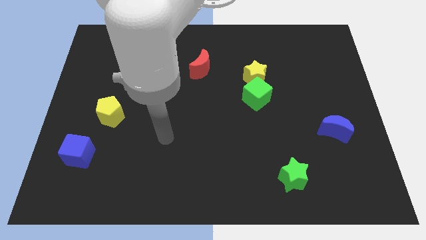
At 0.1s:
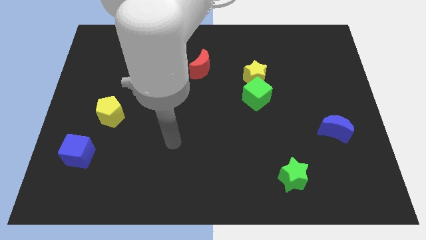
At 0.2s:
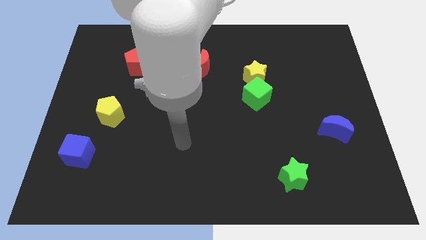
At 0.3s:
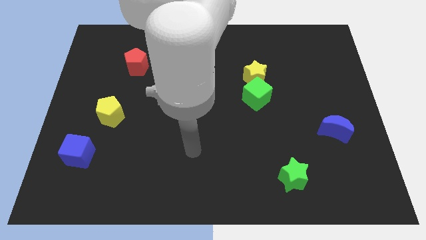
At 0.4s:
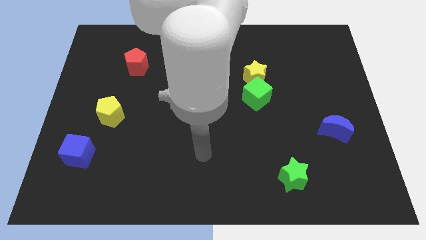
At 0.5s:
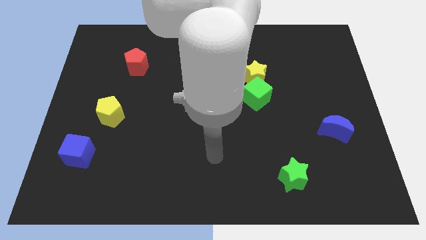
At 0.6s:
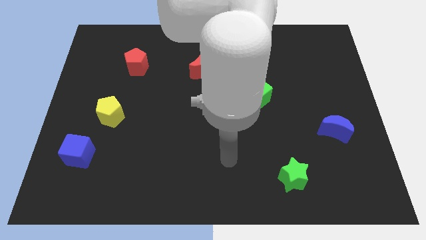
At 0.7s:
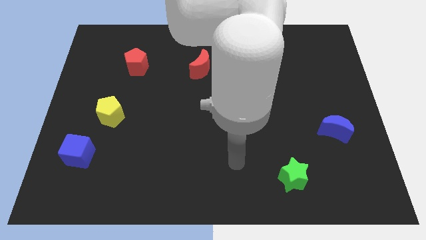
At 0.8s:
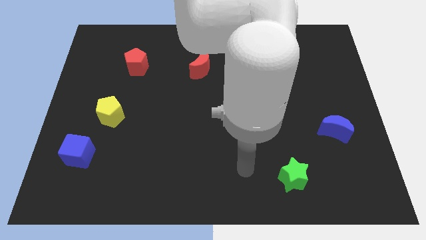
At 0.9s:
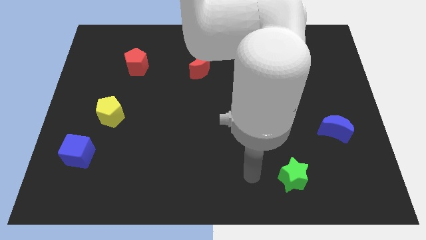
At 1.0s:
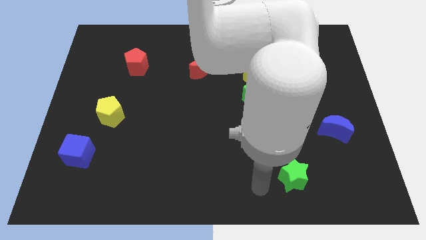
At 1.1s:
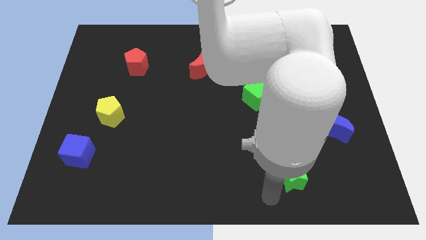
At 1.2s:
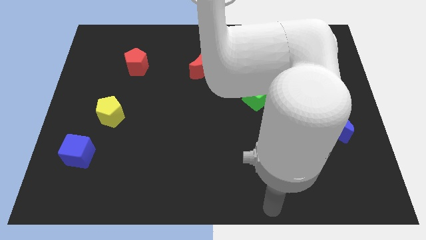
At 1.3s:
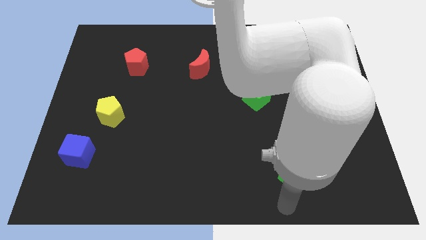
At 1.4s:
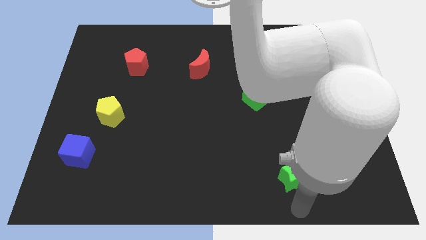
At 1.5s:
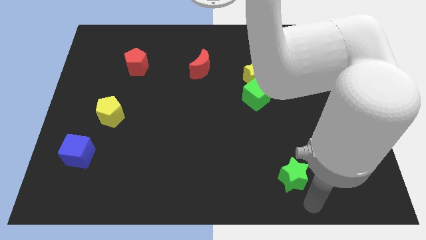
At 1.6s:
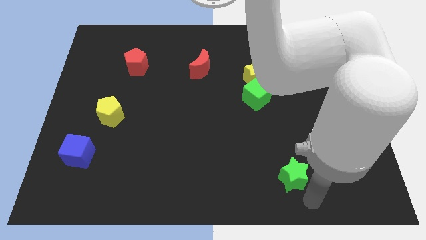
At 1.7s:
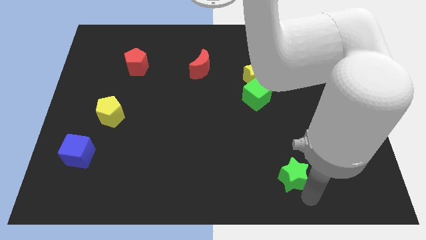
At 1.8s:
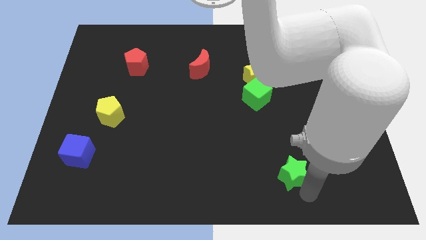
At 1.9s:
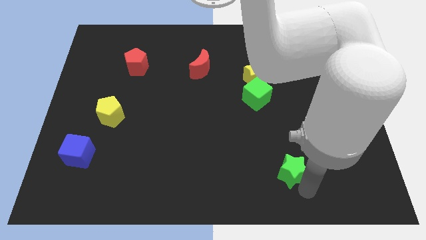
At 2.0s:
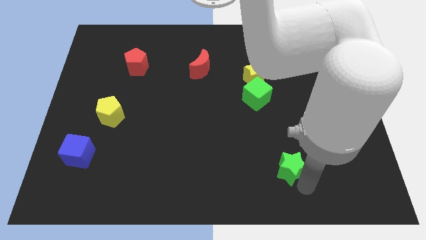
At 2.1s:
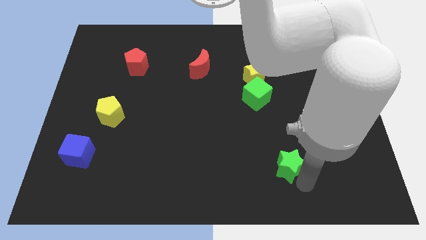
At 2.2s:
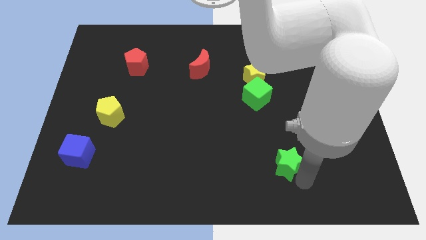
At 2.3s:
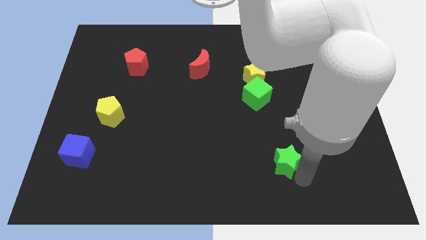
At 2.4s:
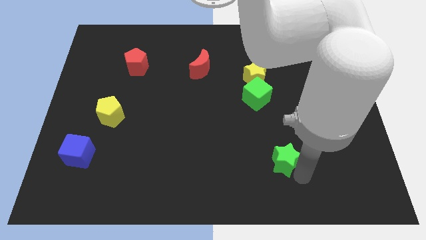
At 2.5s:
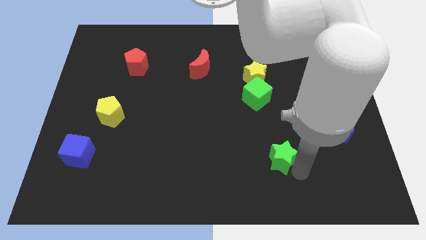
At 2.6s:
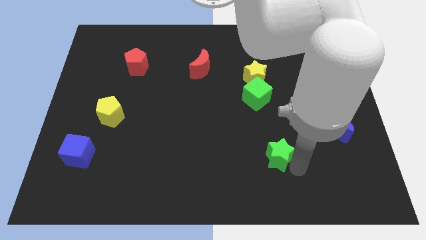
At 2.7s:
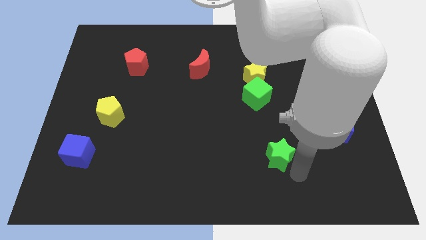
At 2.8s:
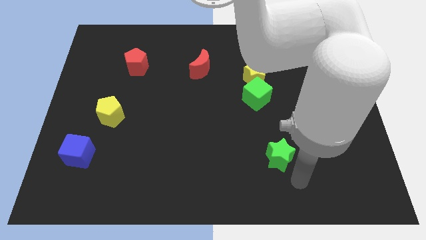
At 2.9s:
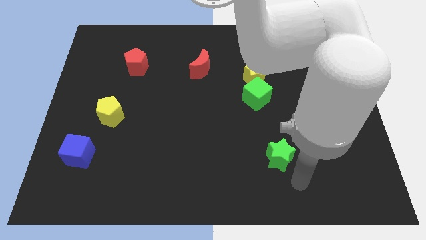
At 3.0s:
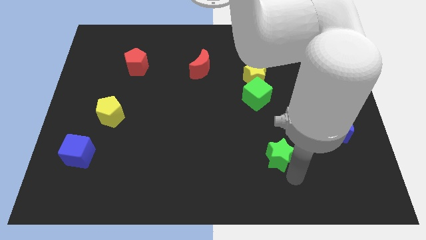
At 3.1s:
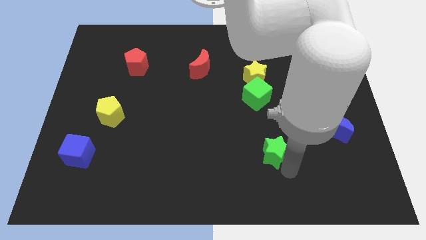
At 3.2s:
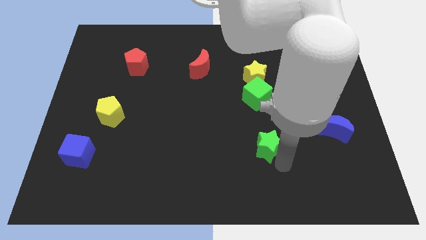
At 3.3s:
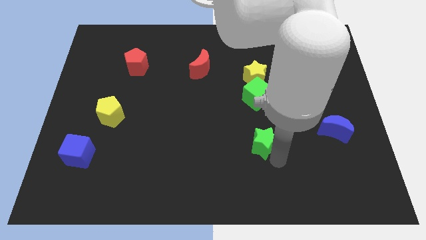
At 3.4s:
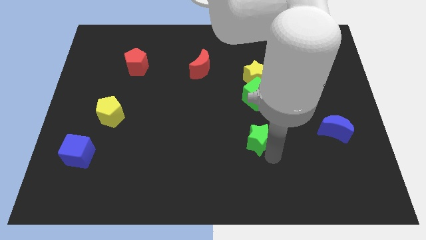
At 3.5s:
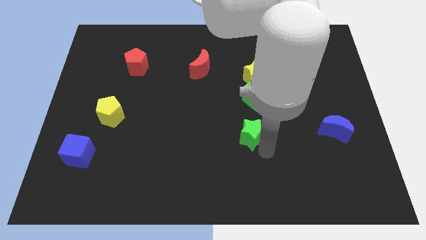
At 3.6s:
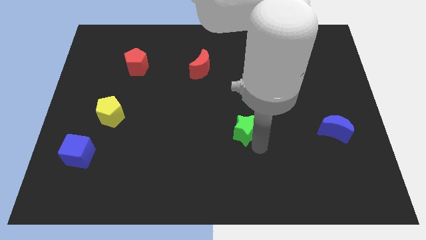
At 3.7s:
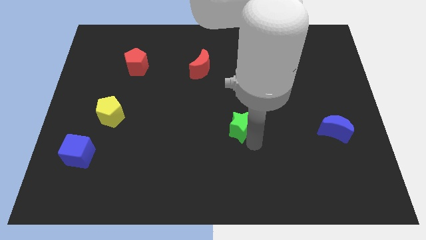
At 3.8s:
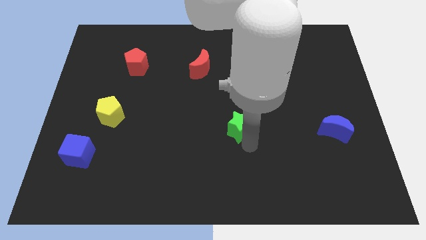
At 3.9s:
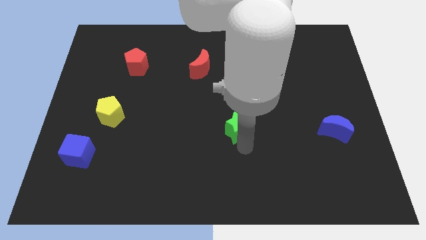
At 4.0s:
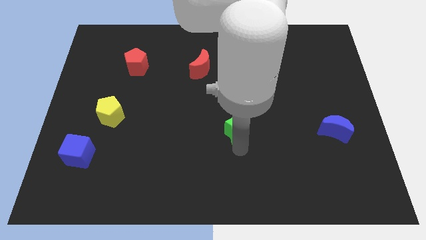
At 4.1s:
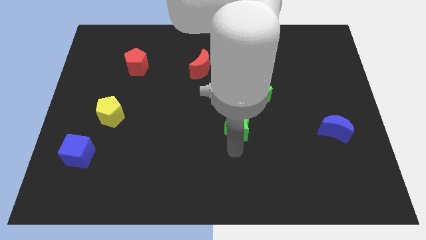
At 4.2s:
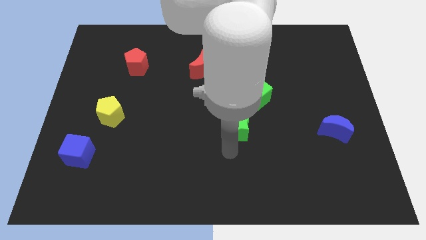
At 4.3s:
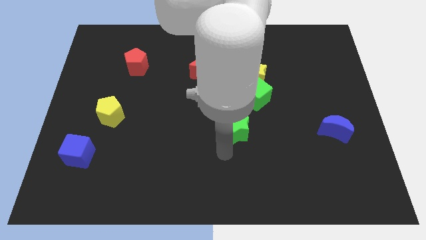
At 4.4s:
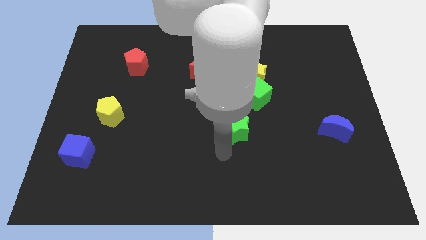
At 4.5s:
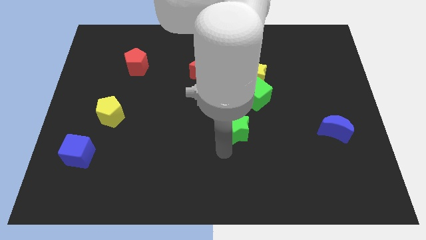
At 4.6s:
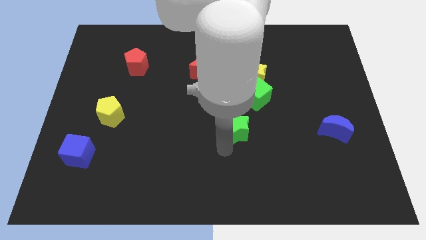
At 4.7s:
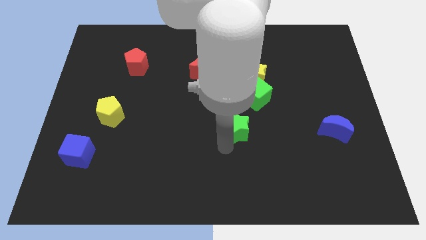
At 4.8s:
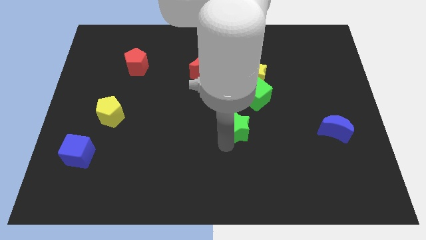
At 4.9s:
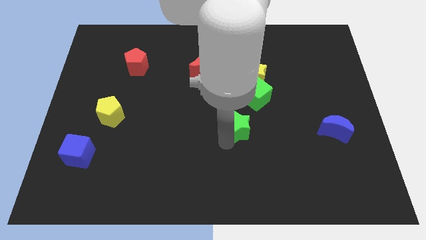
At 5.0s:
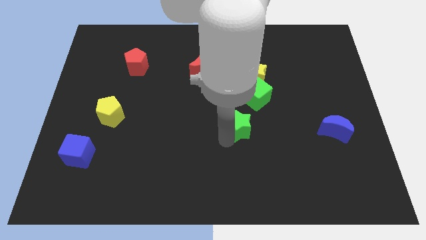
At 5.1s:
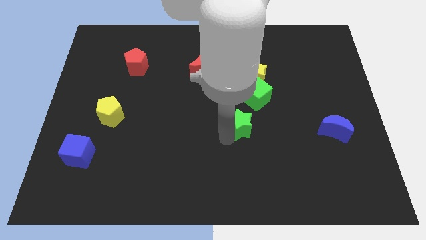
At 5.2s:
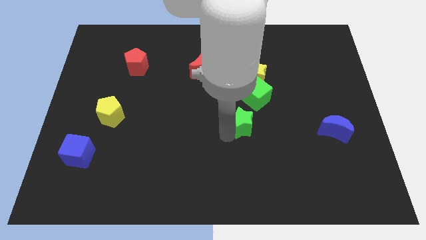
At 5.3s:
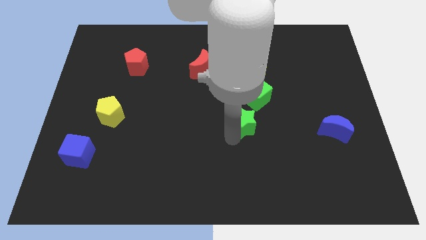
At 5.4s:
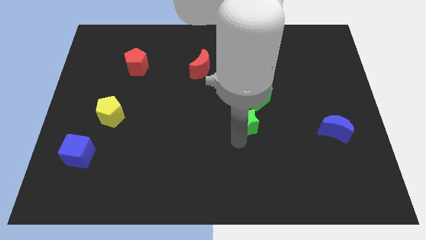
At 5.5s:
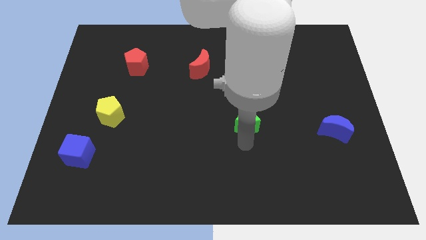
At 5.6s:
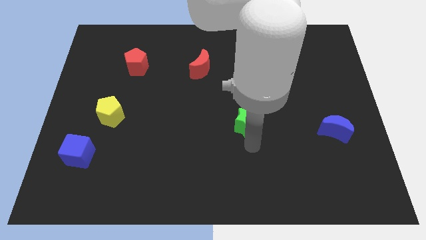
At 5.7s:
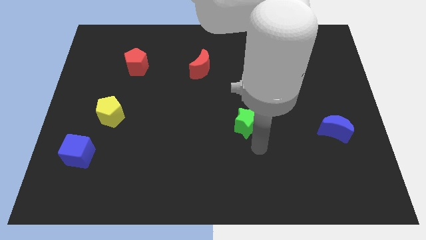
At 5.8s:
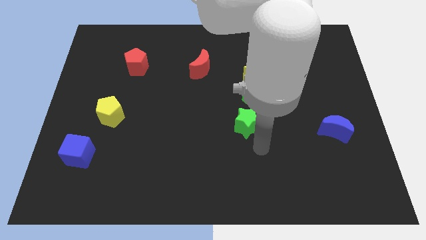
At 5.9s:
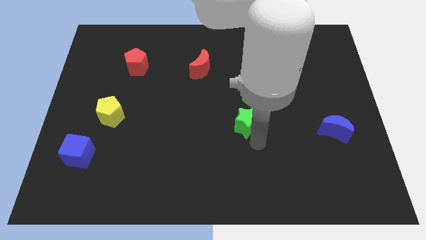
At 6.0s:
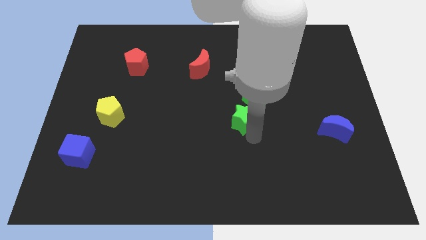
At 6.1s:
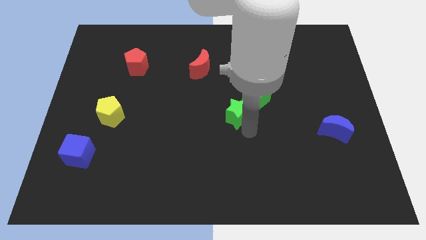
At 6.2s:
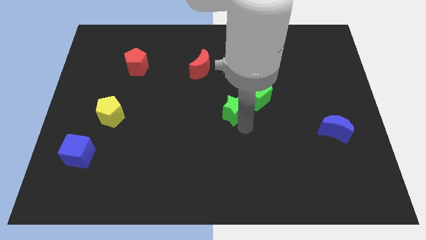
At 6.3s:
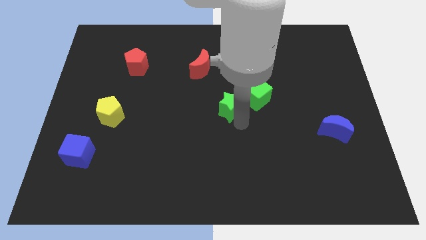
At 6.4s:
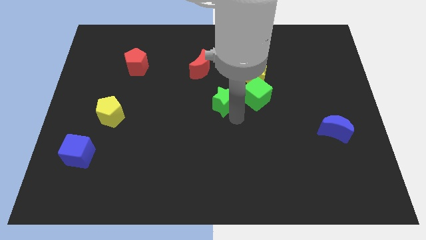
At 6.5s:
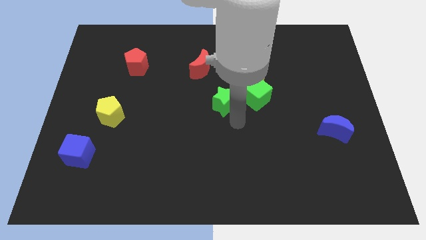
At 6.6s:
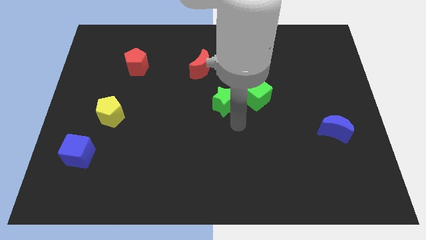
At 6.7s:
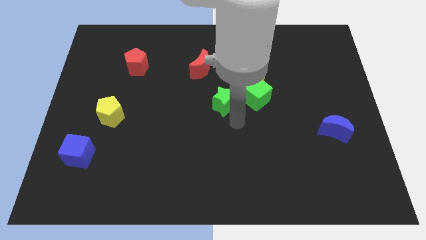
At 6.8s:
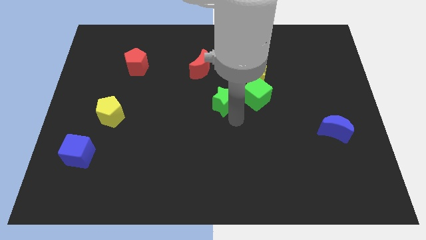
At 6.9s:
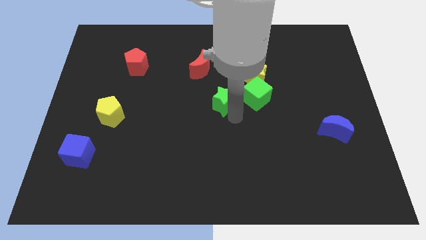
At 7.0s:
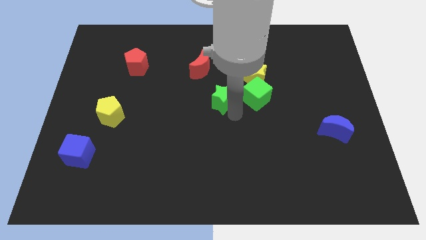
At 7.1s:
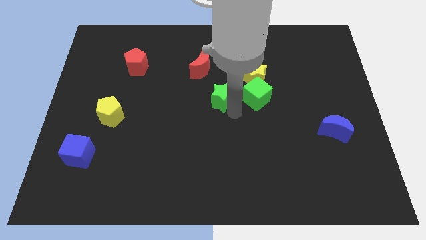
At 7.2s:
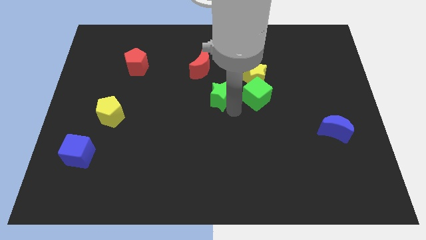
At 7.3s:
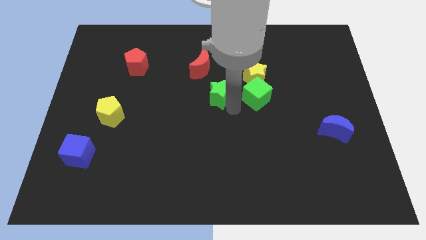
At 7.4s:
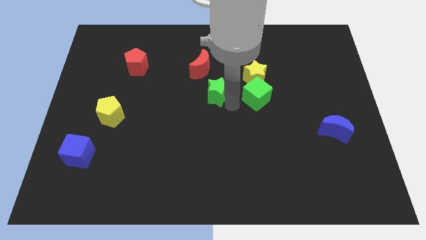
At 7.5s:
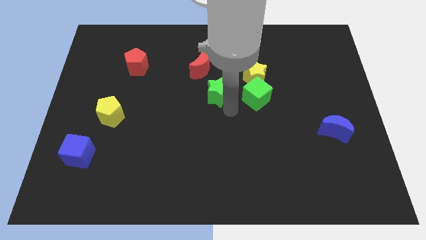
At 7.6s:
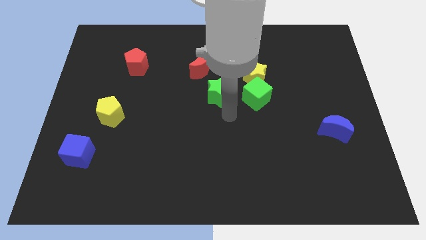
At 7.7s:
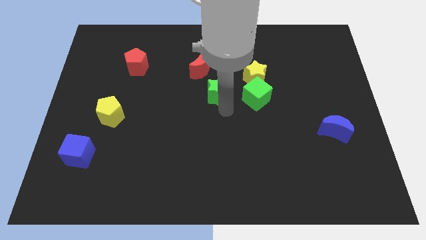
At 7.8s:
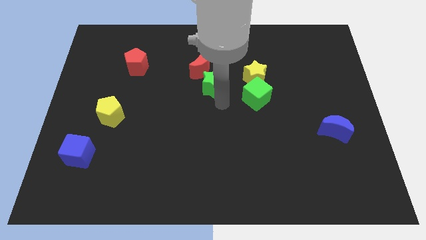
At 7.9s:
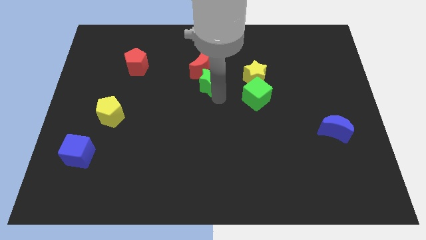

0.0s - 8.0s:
slide the green star towards the red moon
